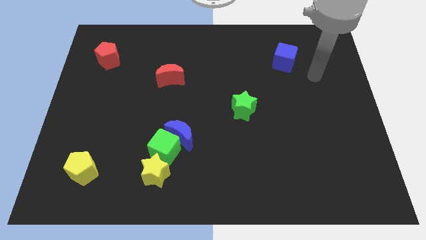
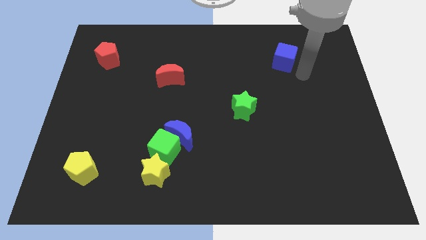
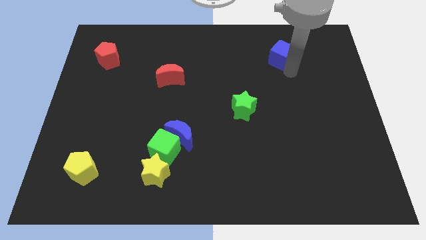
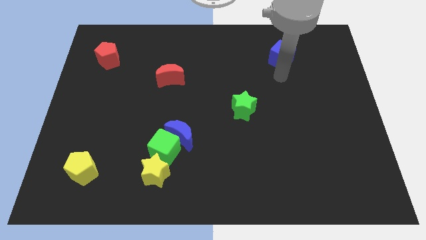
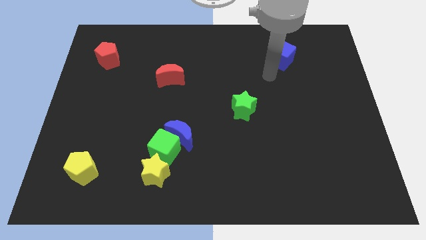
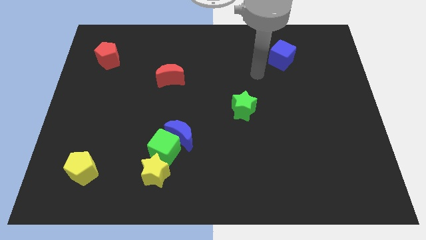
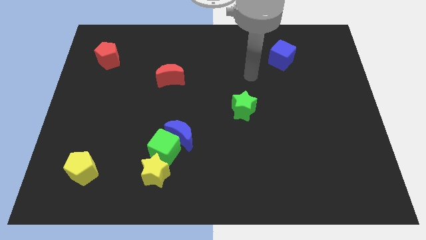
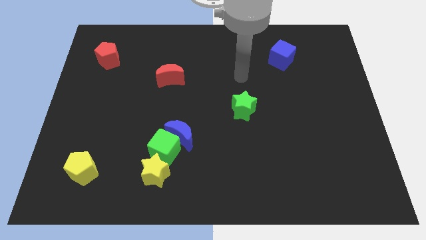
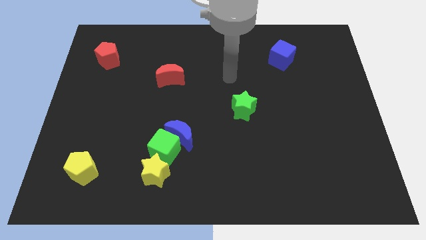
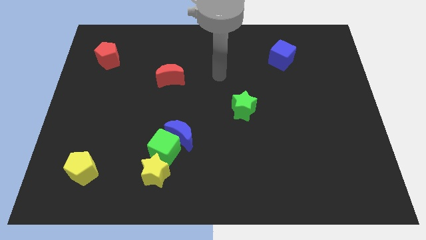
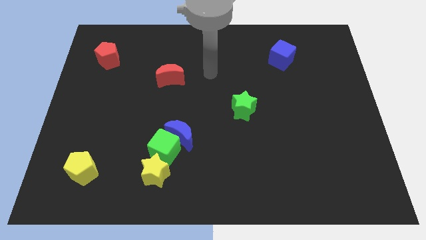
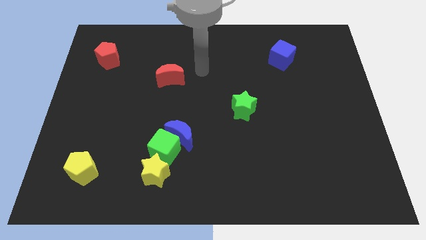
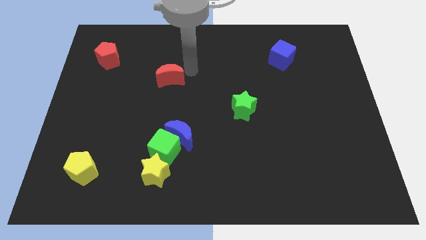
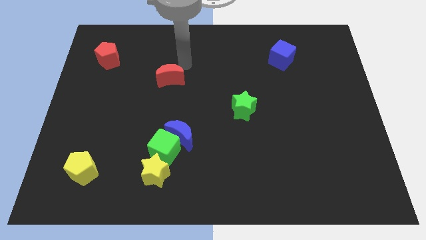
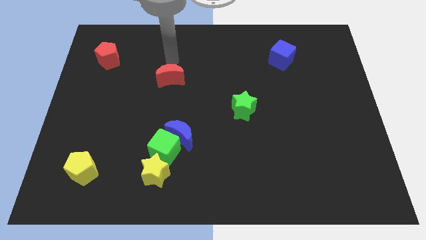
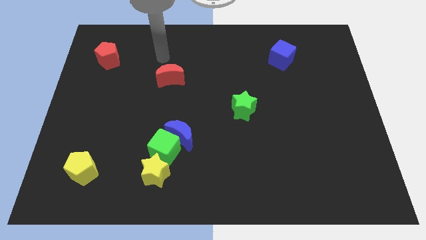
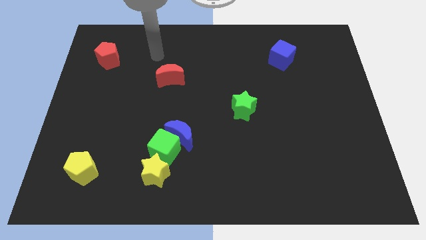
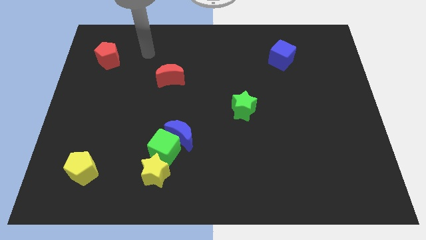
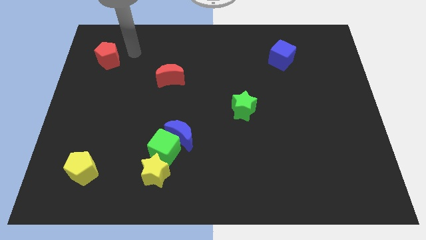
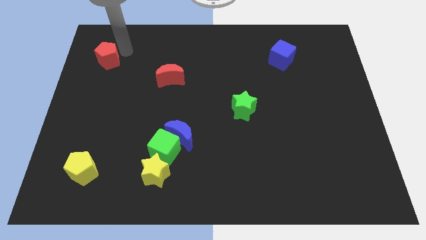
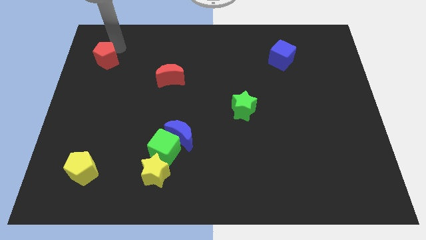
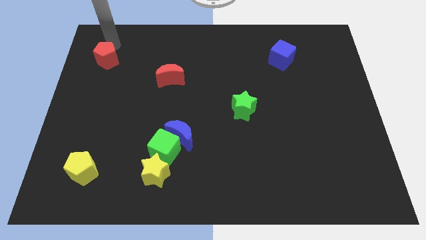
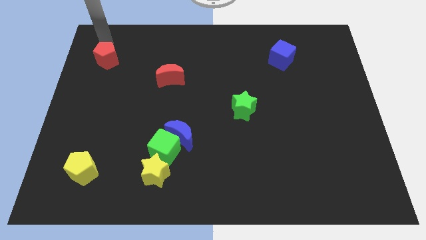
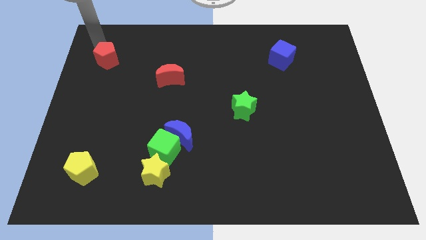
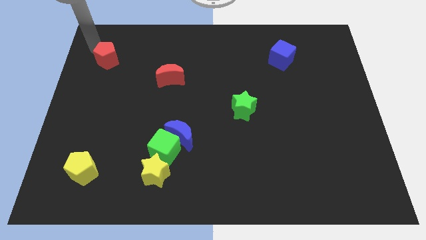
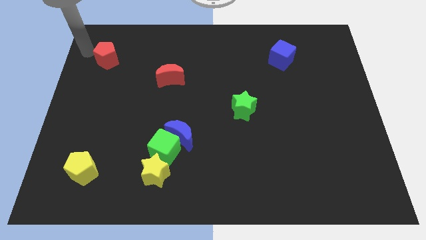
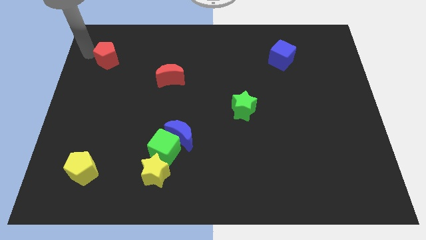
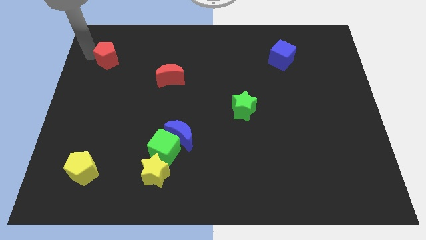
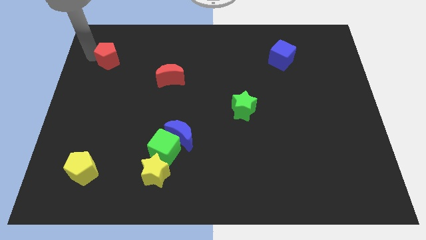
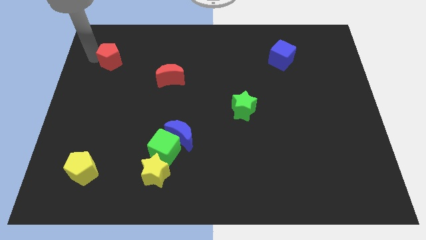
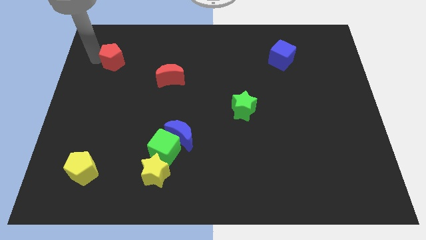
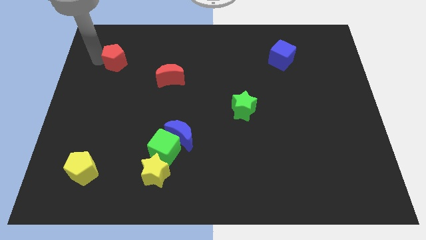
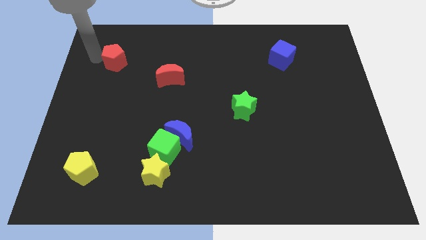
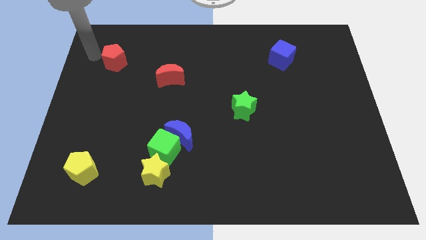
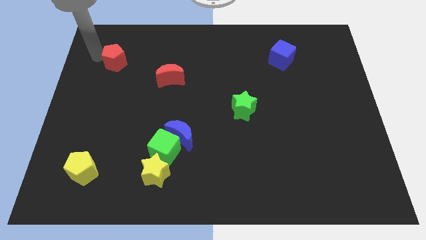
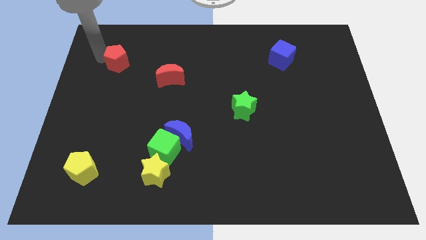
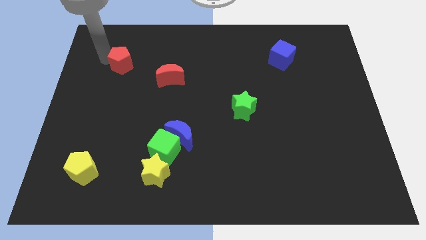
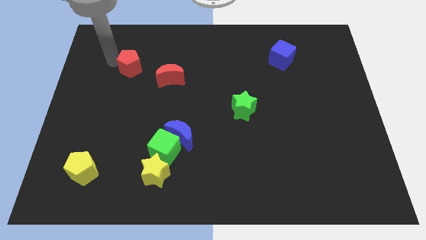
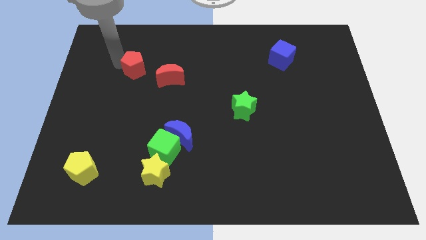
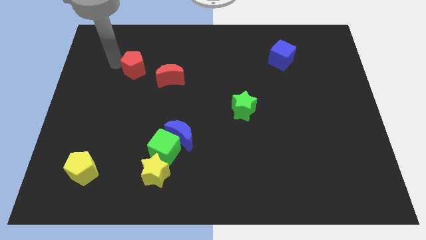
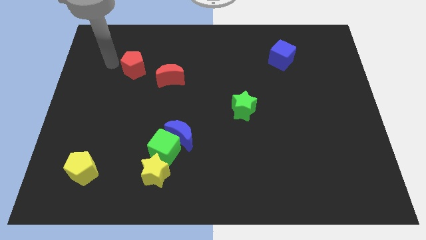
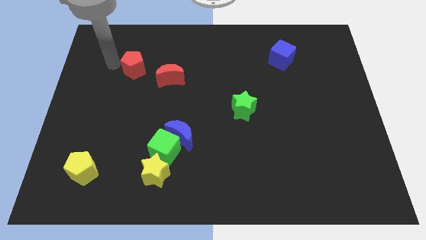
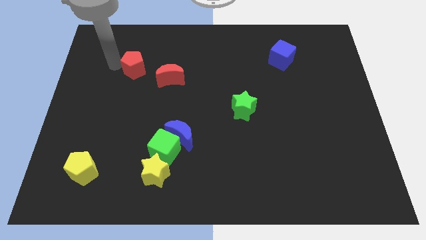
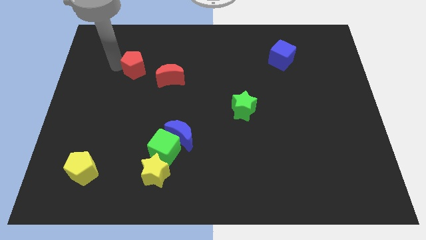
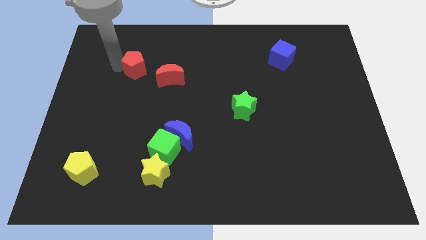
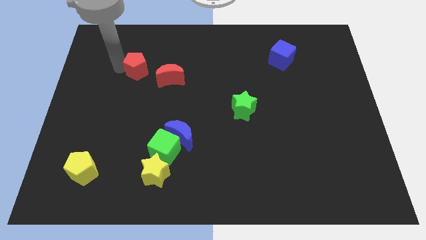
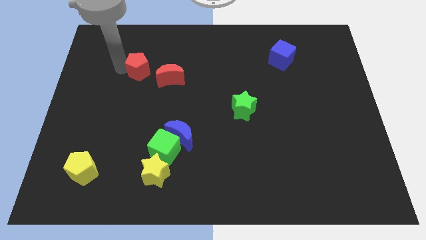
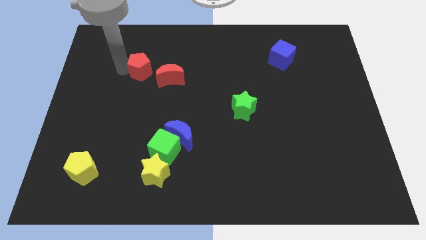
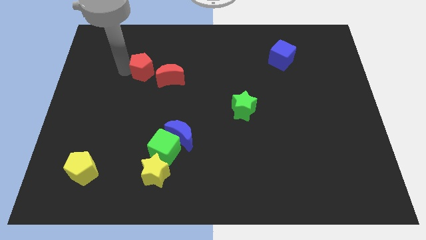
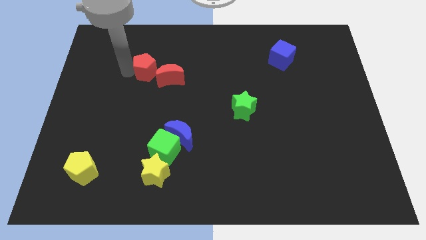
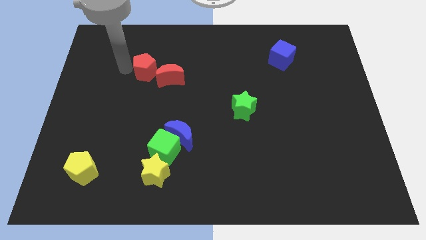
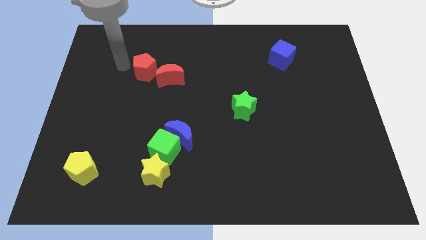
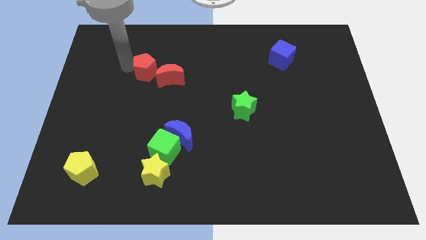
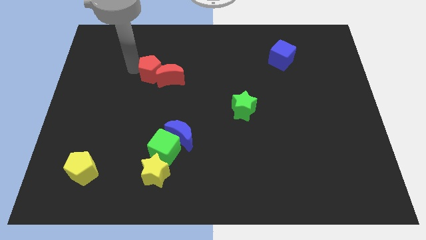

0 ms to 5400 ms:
slide the red pentagon next to the red moon

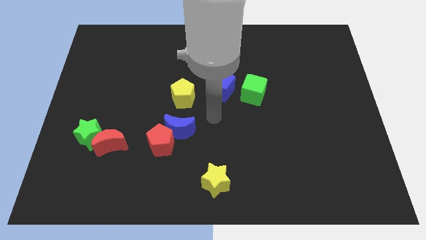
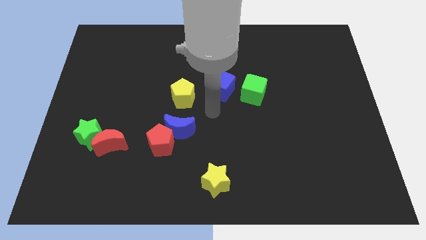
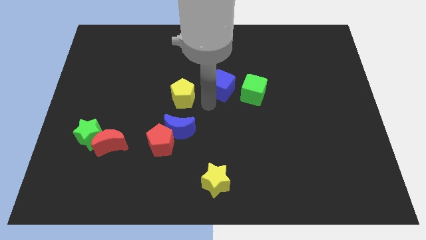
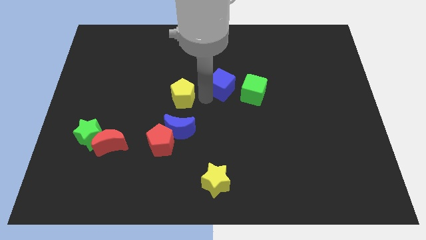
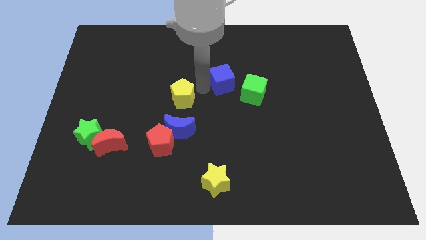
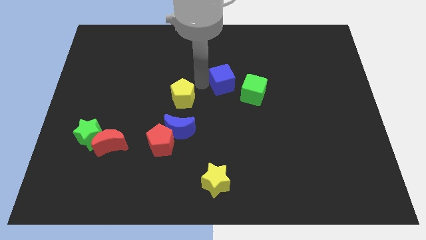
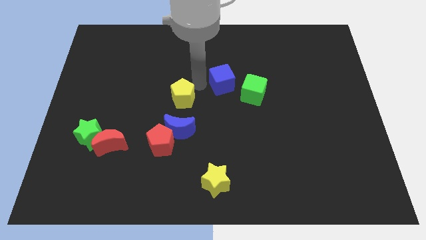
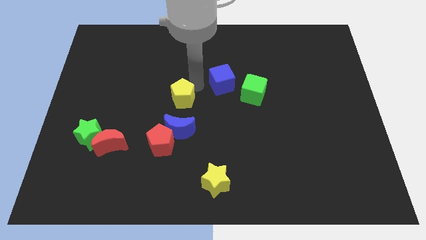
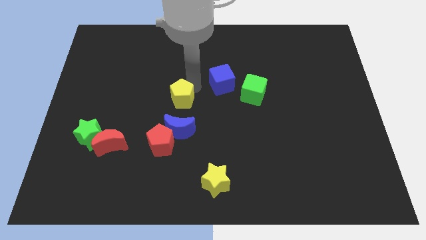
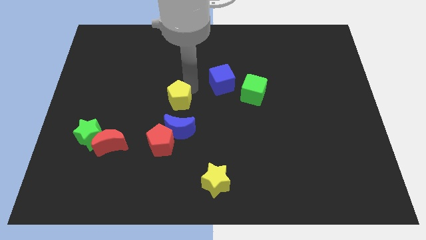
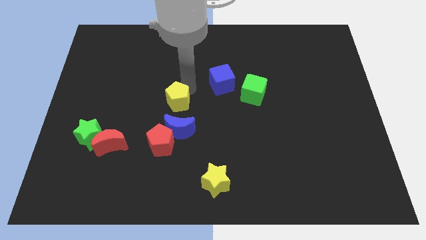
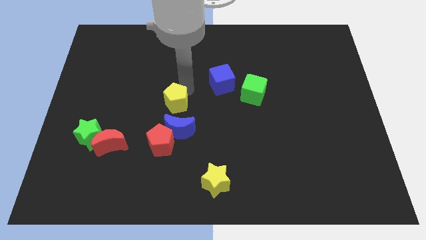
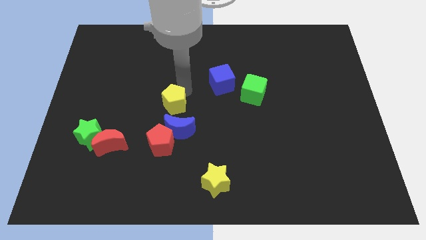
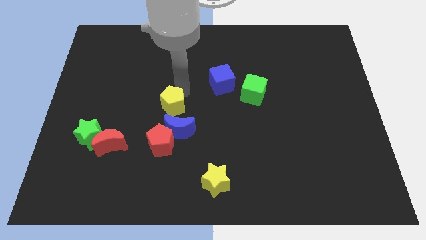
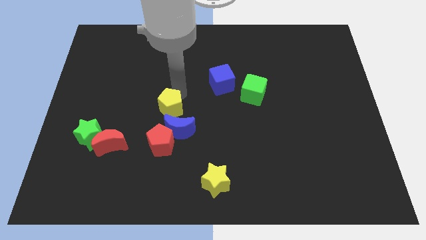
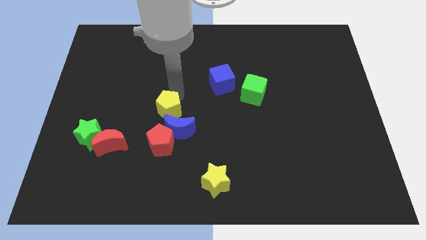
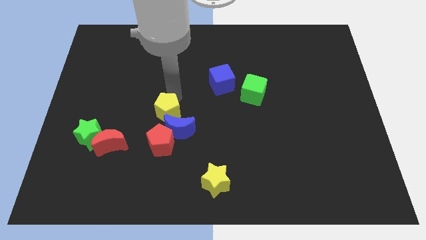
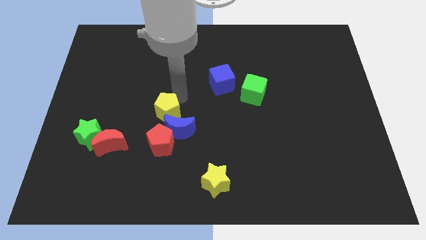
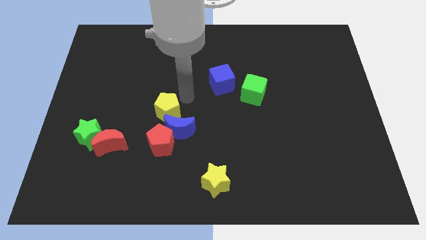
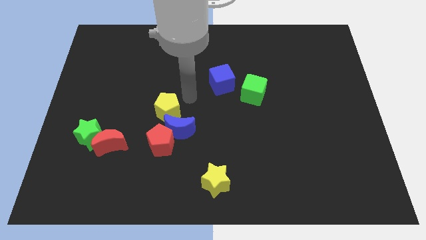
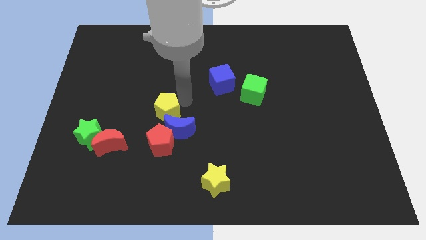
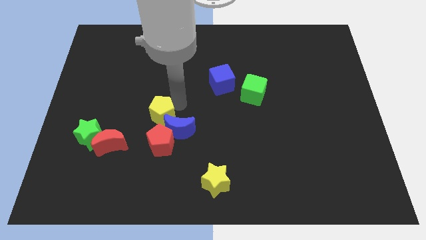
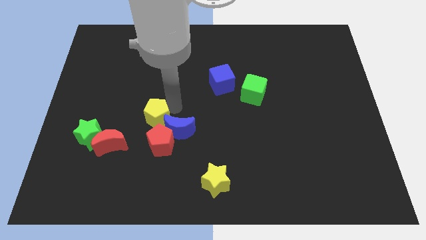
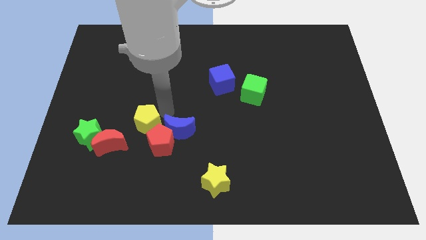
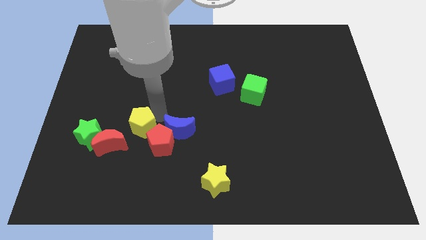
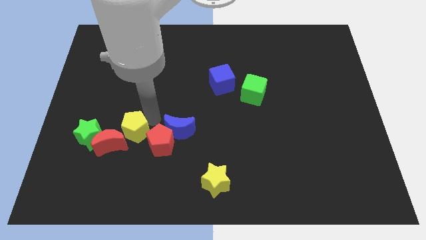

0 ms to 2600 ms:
slide the yellow pentagon close to the red moon
